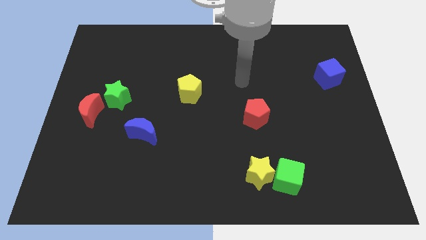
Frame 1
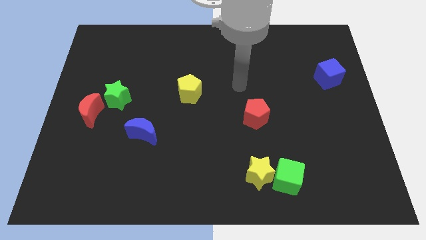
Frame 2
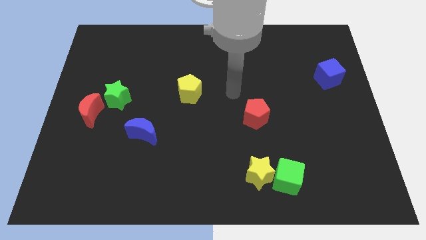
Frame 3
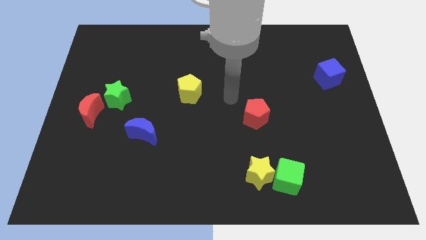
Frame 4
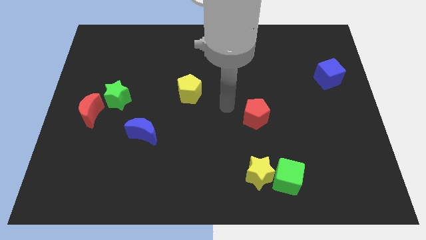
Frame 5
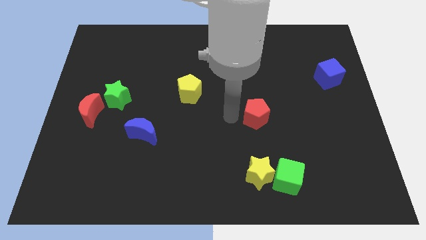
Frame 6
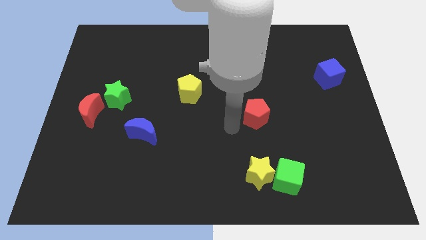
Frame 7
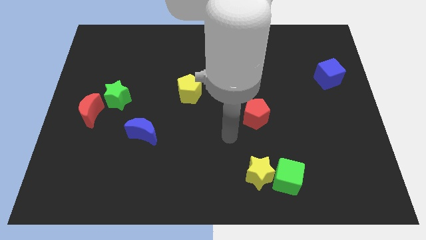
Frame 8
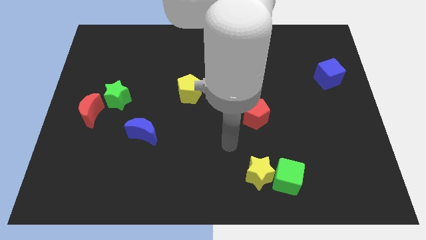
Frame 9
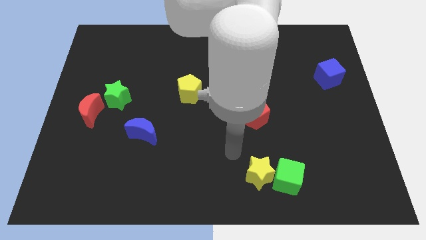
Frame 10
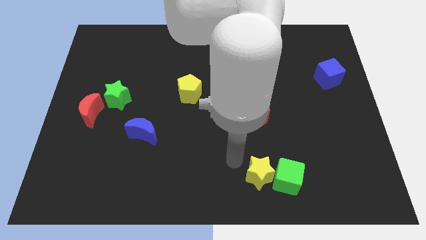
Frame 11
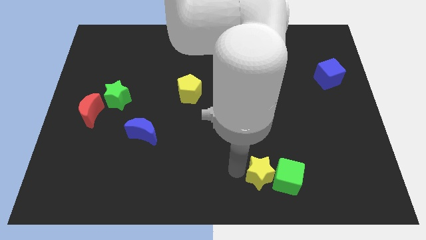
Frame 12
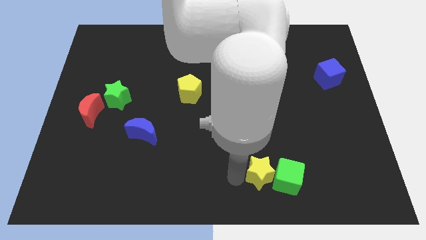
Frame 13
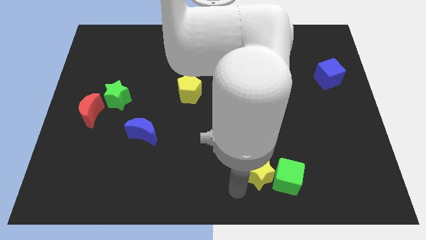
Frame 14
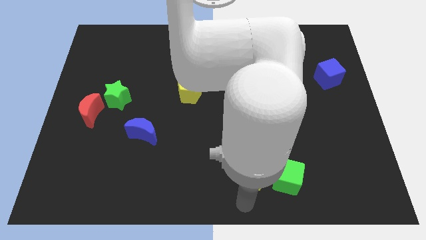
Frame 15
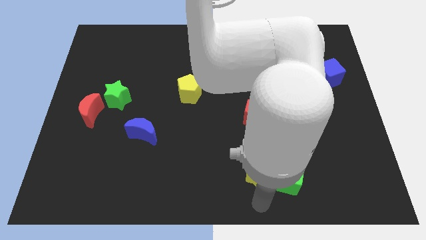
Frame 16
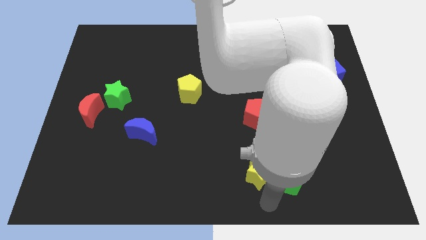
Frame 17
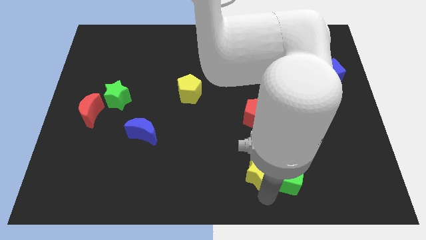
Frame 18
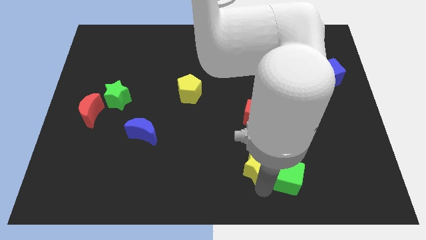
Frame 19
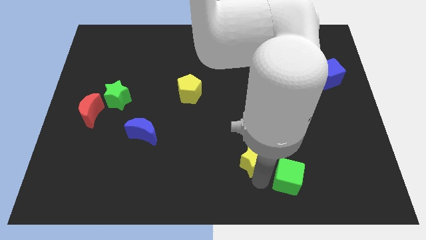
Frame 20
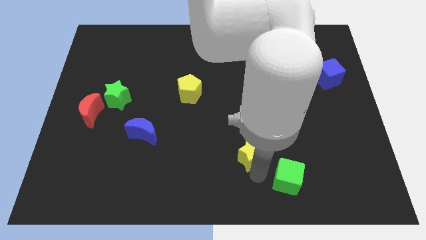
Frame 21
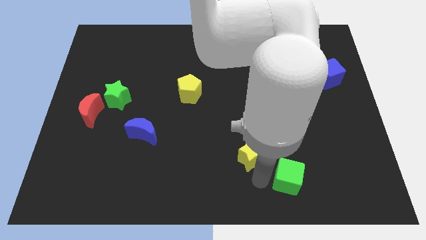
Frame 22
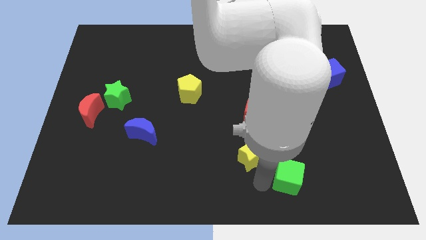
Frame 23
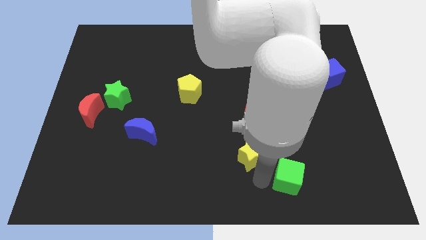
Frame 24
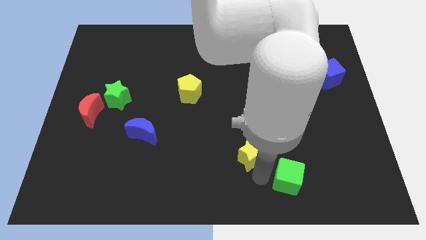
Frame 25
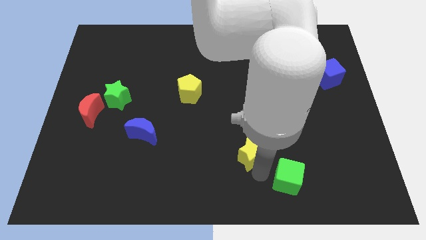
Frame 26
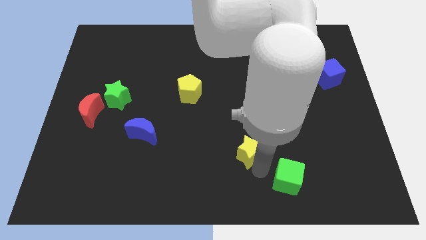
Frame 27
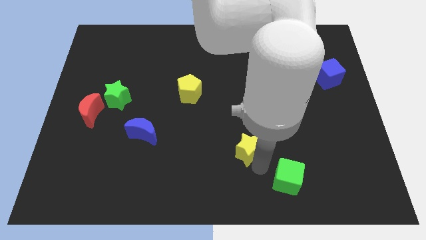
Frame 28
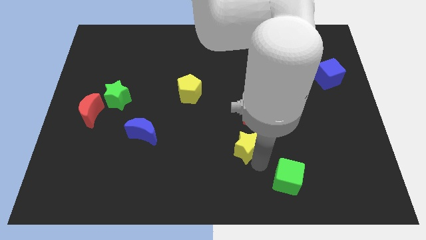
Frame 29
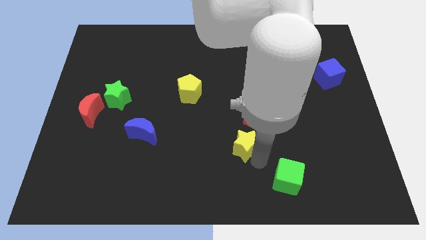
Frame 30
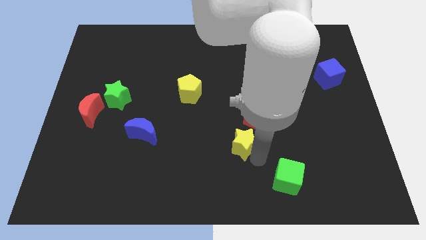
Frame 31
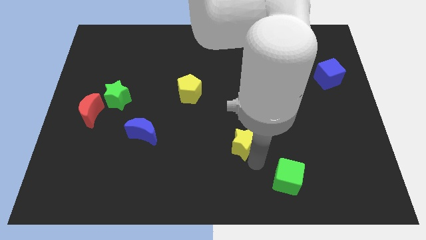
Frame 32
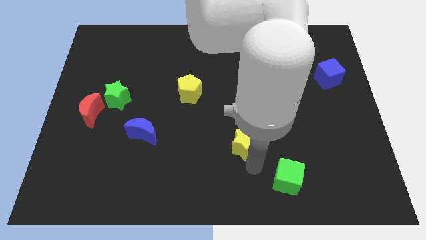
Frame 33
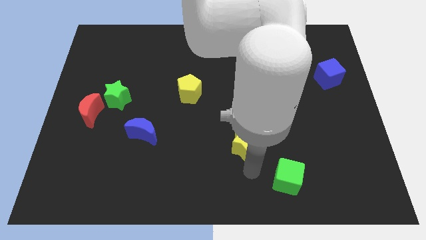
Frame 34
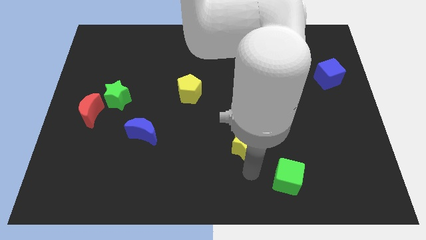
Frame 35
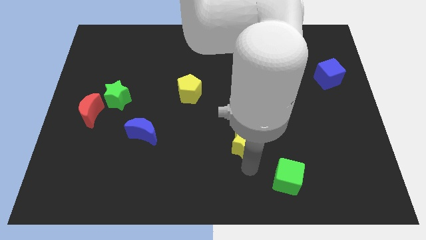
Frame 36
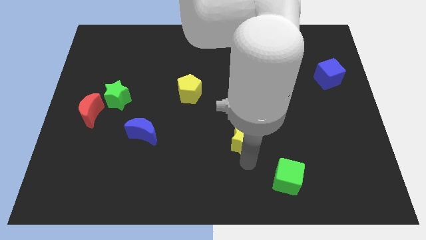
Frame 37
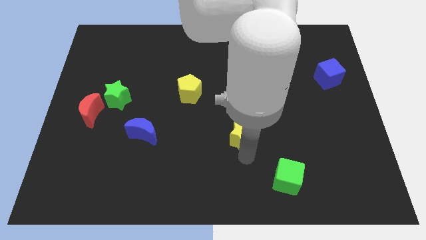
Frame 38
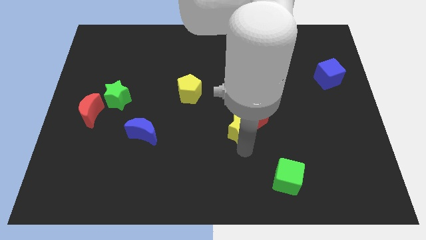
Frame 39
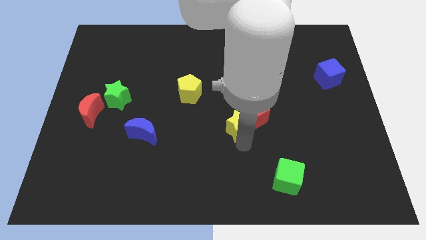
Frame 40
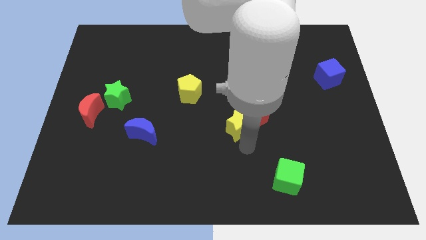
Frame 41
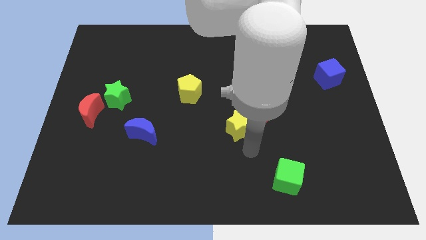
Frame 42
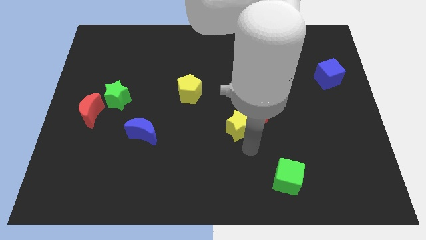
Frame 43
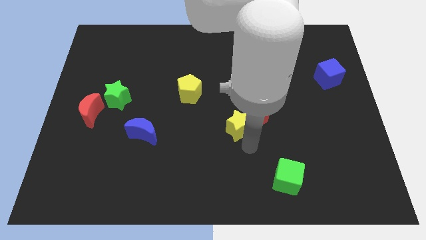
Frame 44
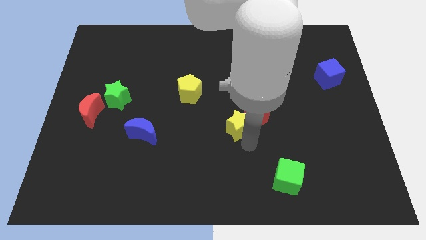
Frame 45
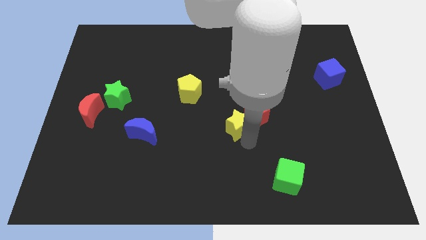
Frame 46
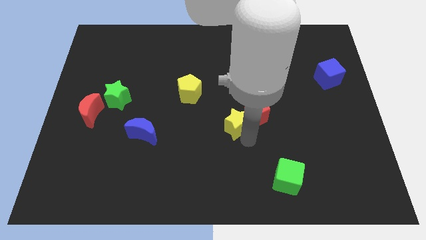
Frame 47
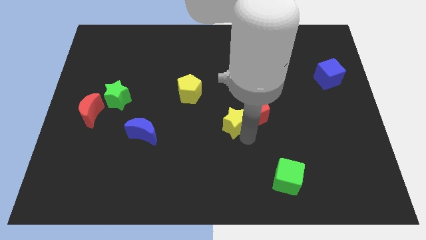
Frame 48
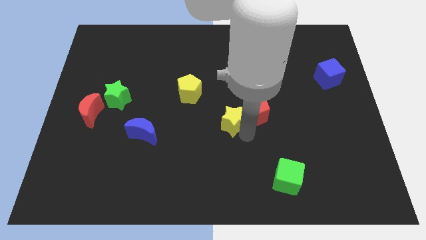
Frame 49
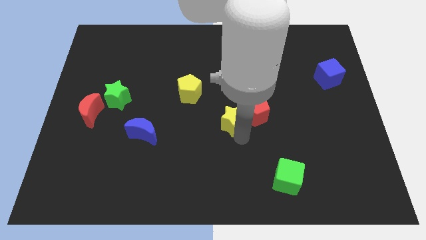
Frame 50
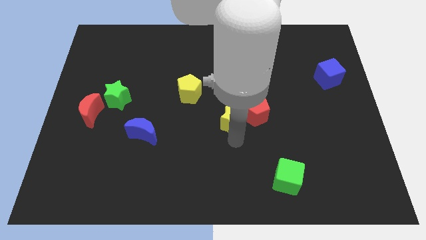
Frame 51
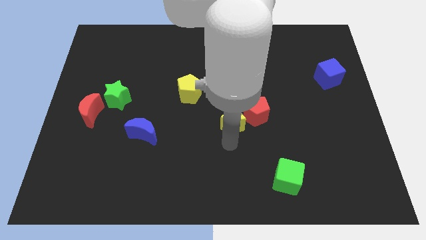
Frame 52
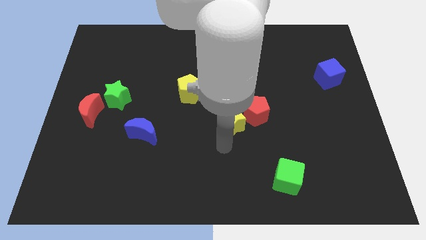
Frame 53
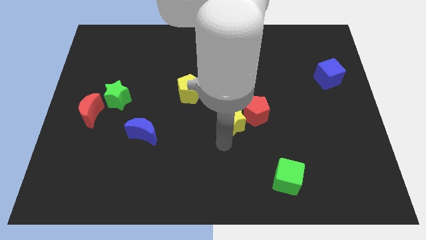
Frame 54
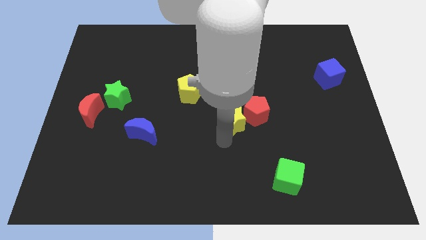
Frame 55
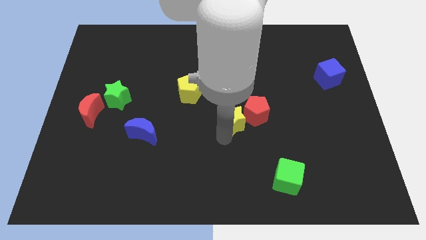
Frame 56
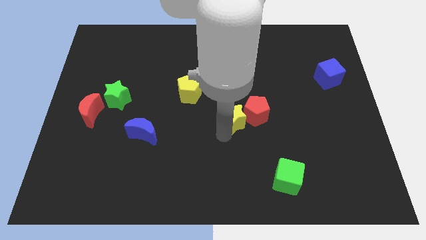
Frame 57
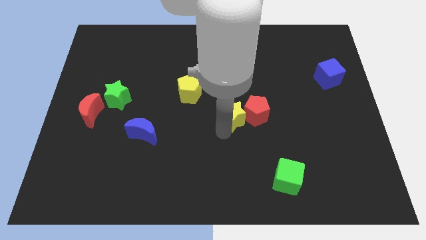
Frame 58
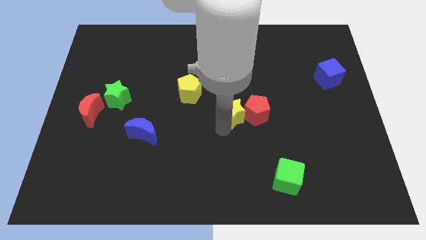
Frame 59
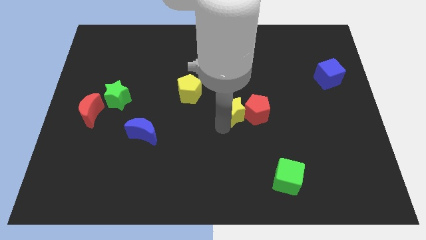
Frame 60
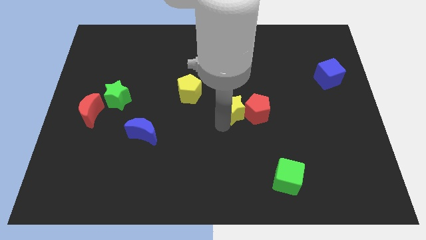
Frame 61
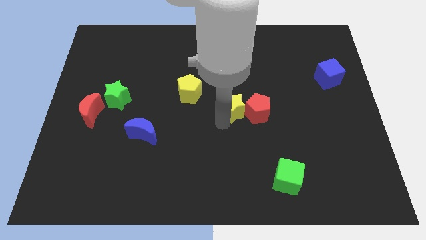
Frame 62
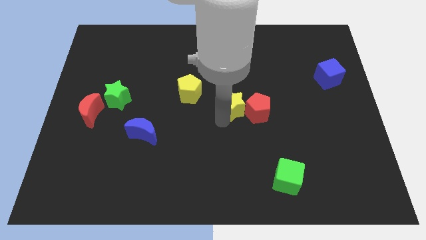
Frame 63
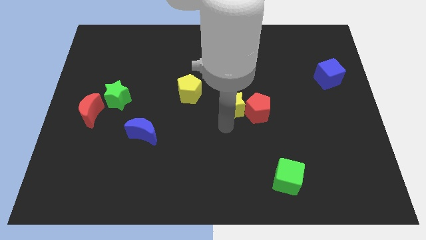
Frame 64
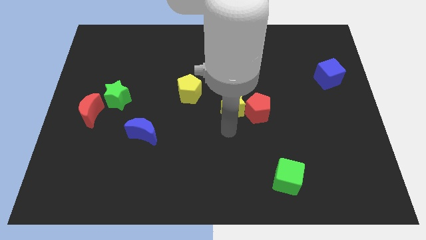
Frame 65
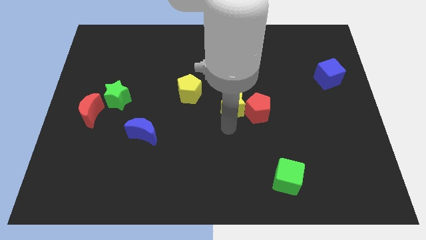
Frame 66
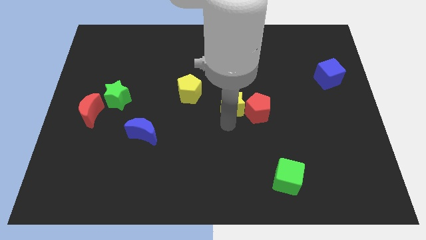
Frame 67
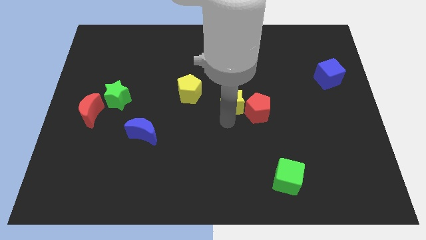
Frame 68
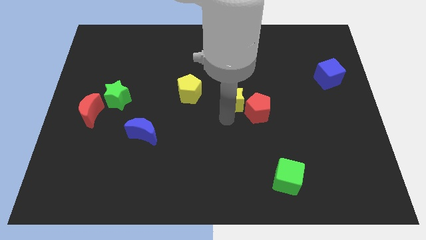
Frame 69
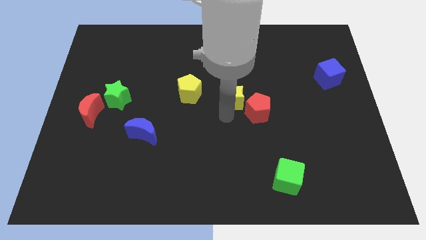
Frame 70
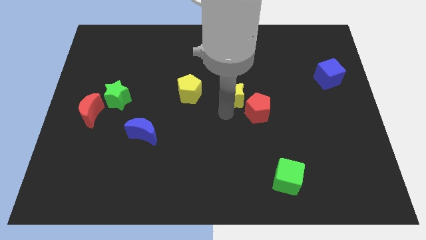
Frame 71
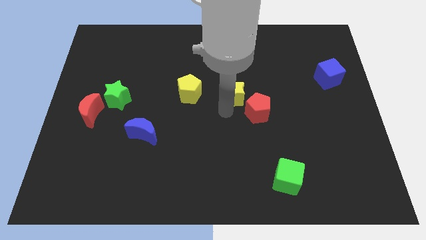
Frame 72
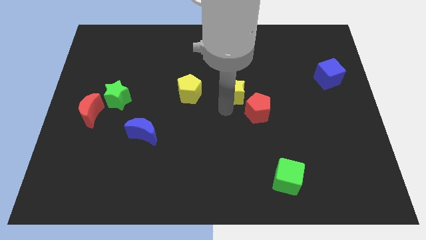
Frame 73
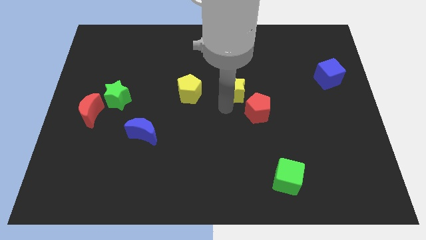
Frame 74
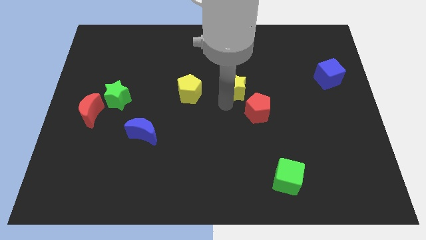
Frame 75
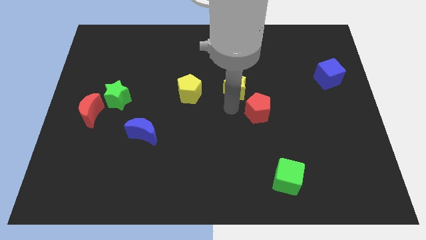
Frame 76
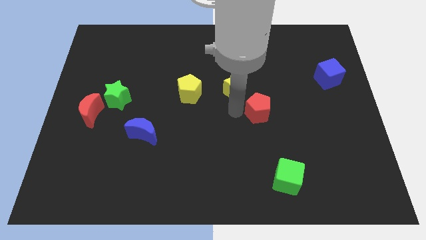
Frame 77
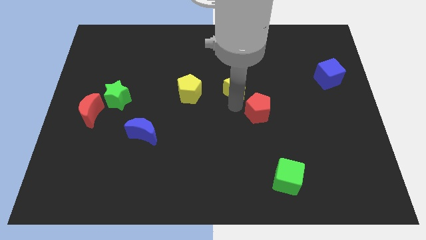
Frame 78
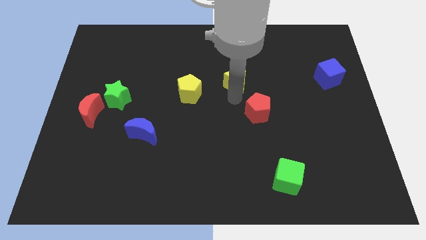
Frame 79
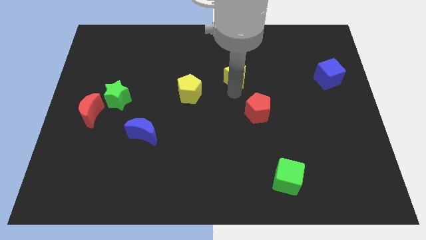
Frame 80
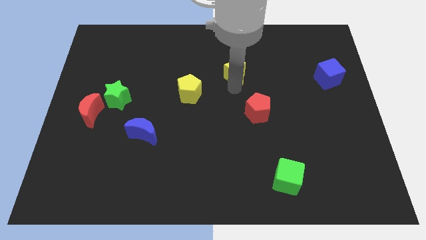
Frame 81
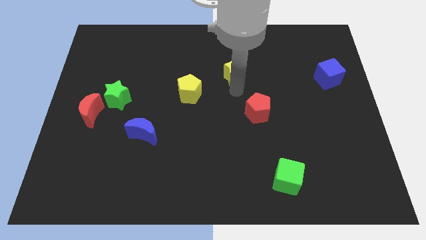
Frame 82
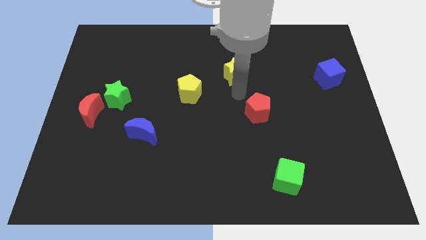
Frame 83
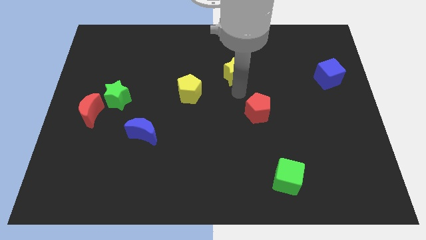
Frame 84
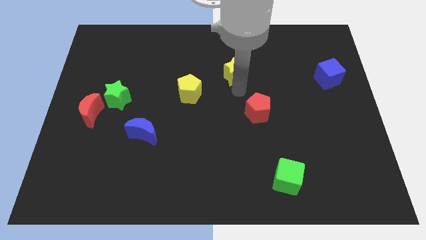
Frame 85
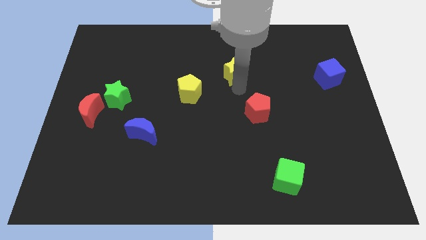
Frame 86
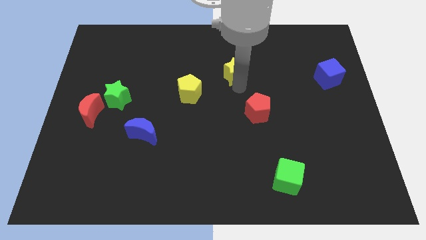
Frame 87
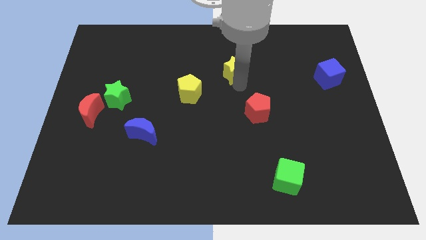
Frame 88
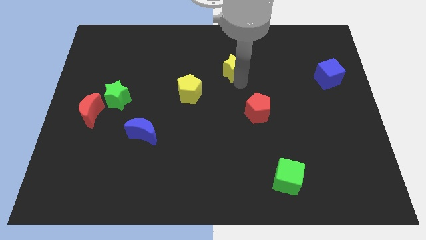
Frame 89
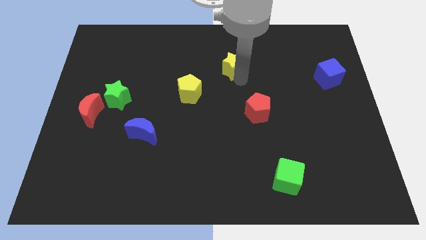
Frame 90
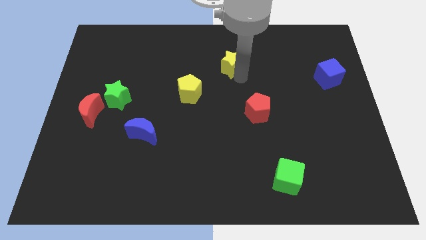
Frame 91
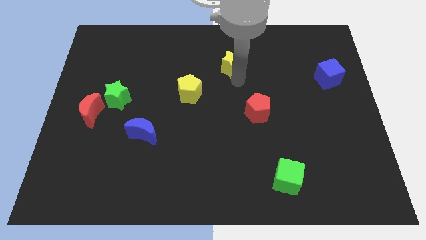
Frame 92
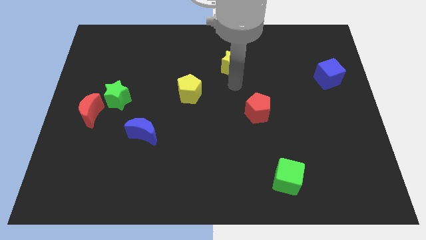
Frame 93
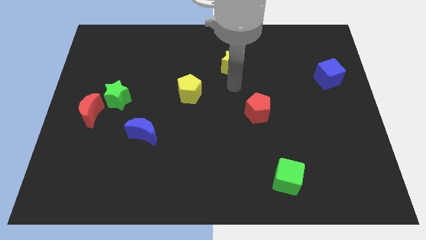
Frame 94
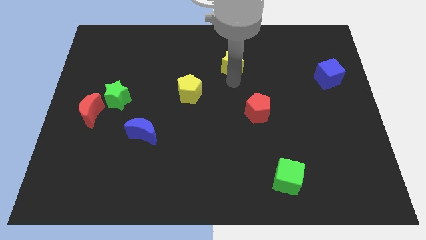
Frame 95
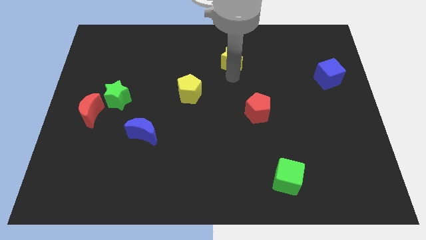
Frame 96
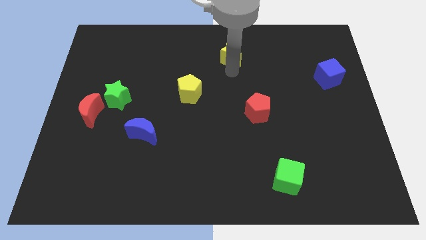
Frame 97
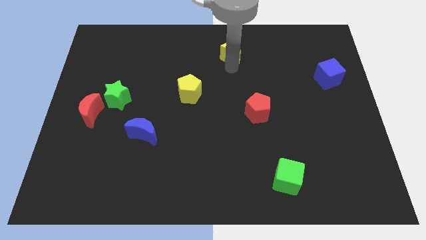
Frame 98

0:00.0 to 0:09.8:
put the yellow star to the top side
